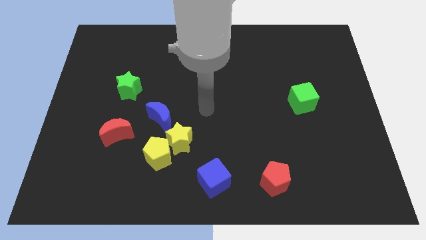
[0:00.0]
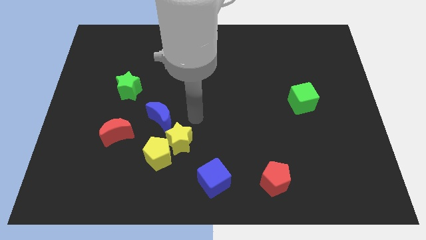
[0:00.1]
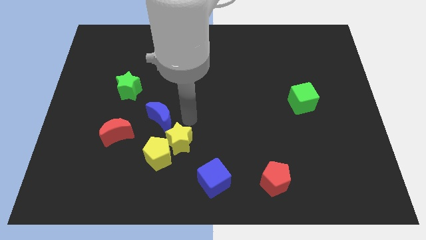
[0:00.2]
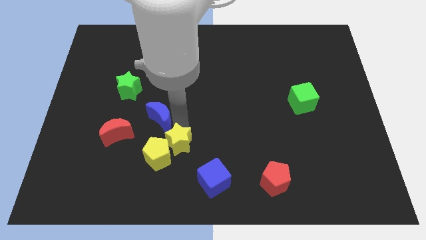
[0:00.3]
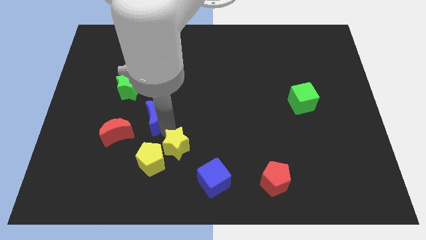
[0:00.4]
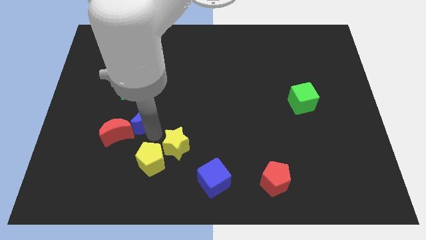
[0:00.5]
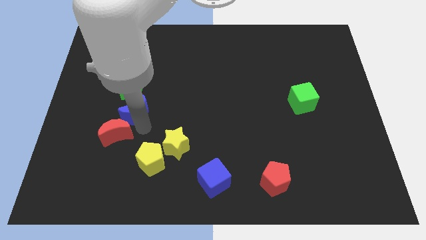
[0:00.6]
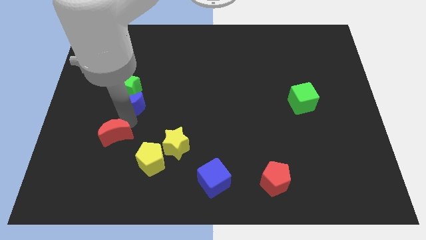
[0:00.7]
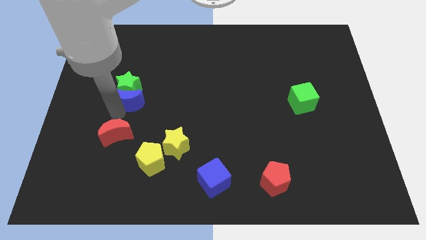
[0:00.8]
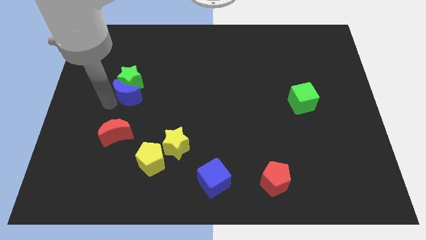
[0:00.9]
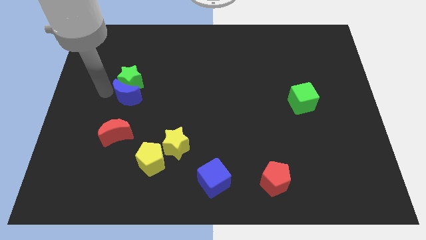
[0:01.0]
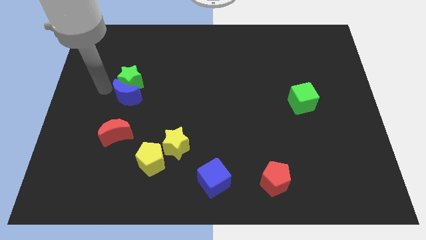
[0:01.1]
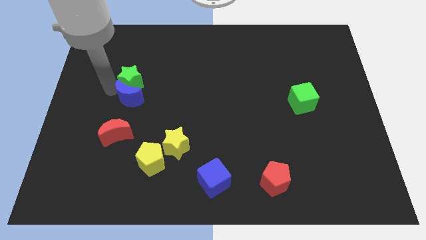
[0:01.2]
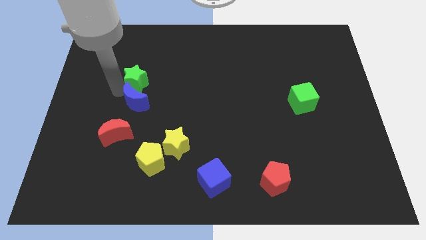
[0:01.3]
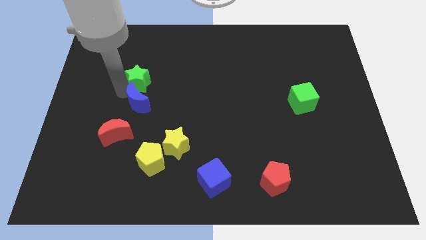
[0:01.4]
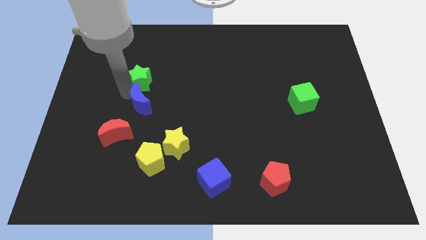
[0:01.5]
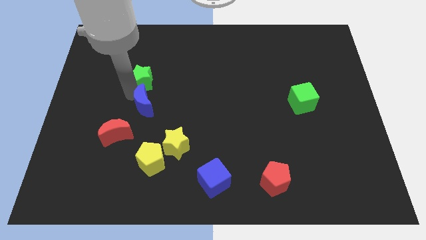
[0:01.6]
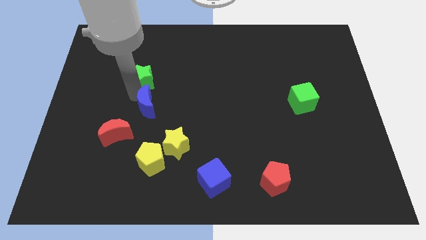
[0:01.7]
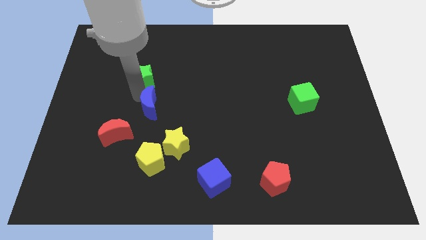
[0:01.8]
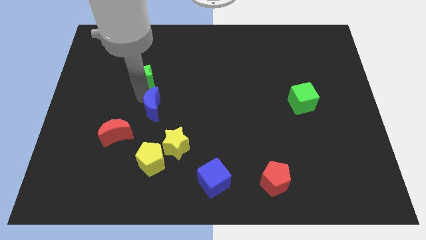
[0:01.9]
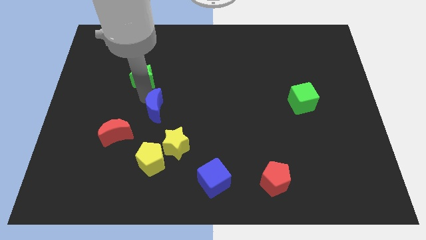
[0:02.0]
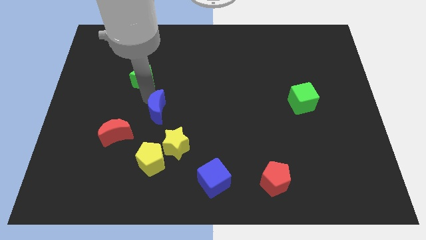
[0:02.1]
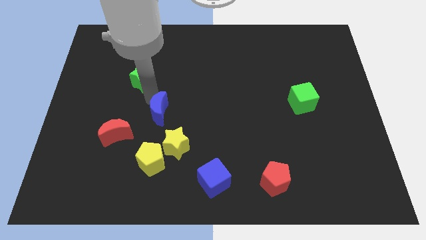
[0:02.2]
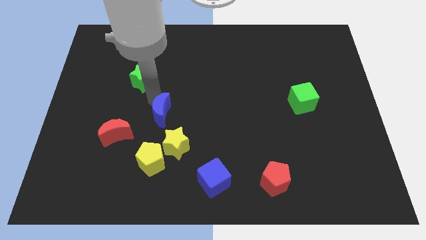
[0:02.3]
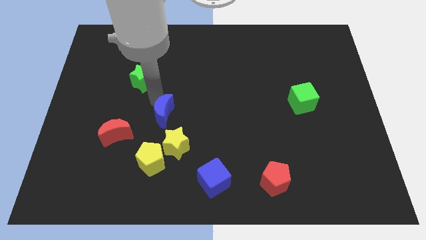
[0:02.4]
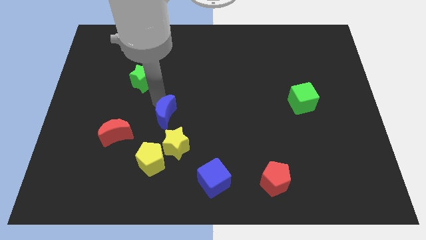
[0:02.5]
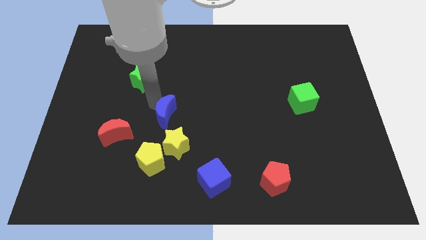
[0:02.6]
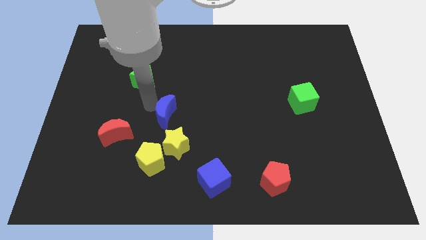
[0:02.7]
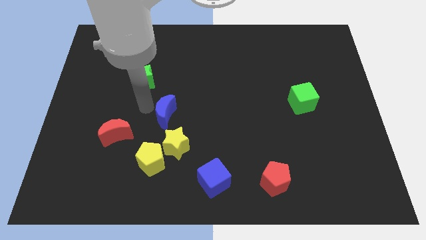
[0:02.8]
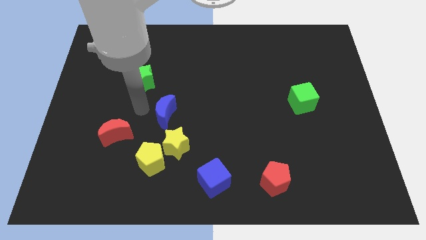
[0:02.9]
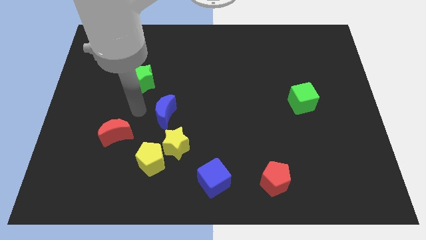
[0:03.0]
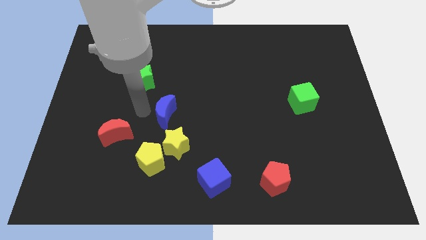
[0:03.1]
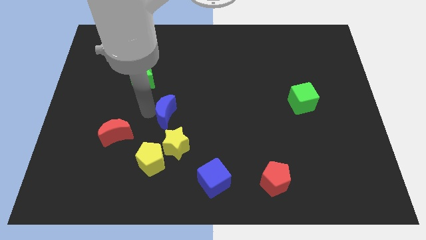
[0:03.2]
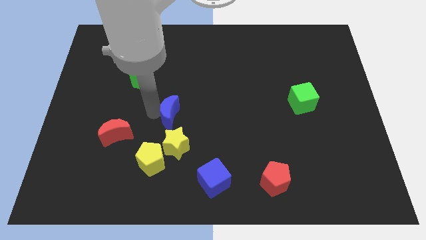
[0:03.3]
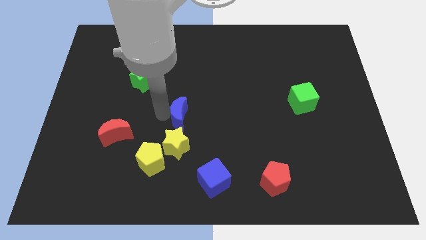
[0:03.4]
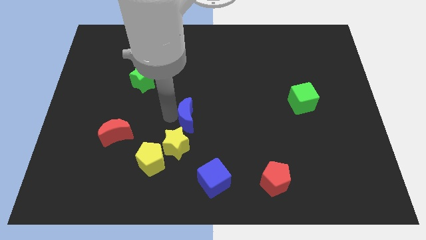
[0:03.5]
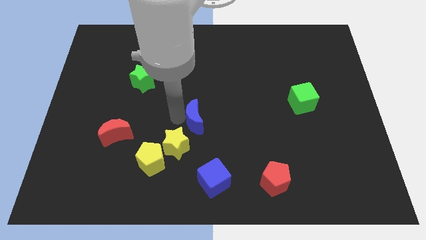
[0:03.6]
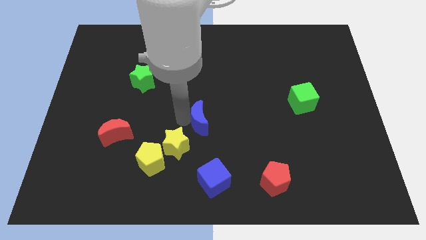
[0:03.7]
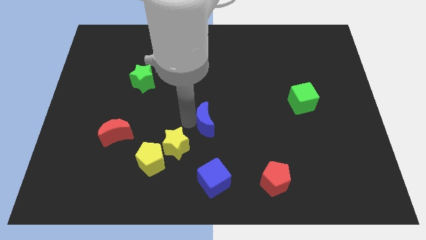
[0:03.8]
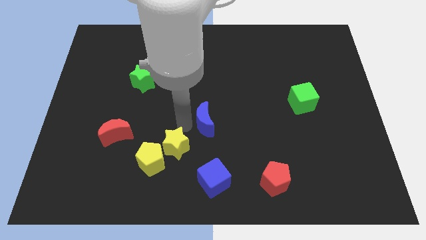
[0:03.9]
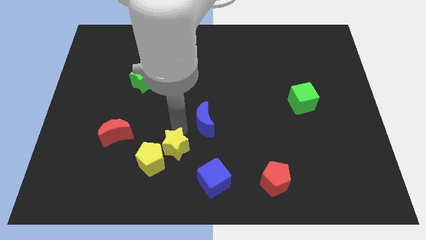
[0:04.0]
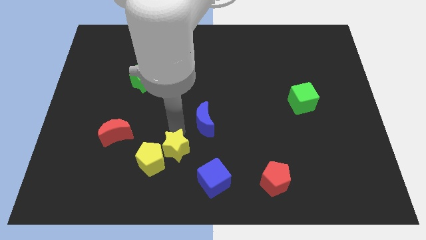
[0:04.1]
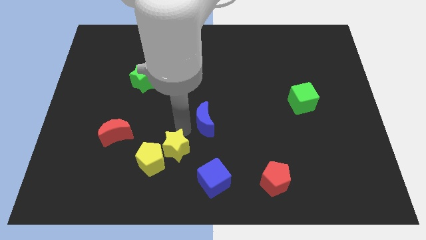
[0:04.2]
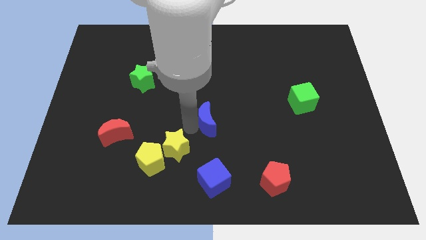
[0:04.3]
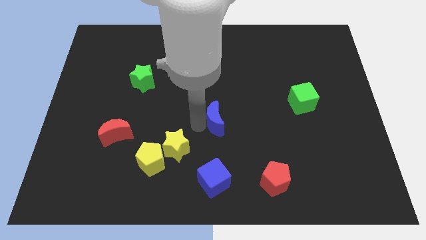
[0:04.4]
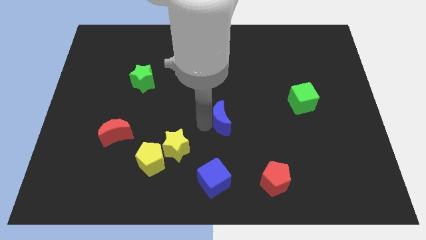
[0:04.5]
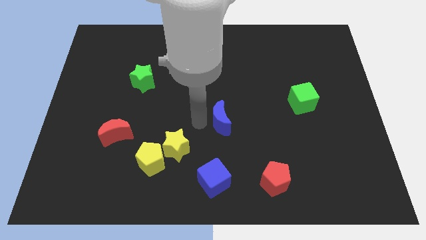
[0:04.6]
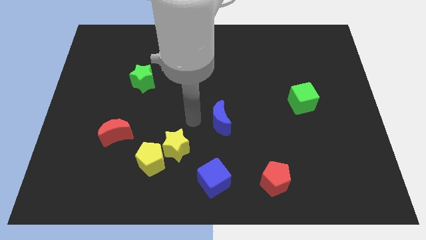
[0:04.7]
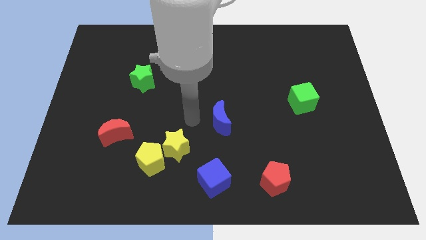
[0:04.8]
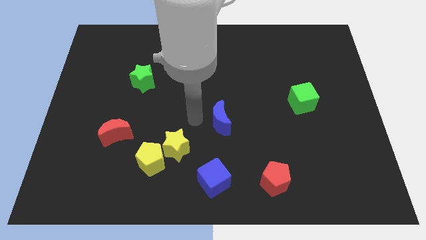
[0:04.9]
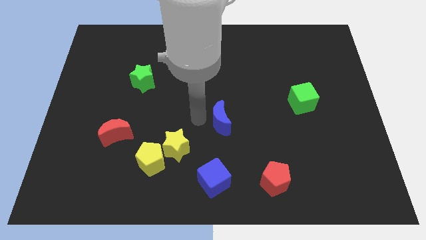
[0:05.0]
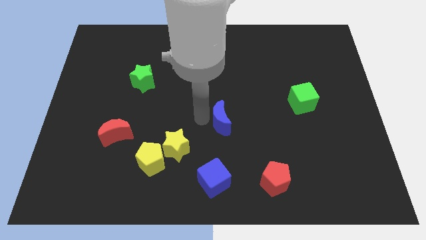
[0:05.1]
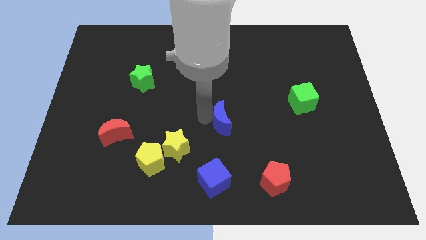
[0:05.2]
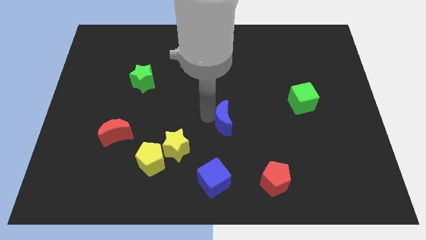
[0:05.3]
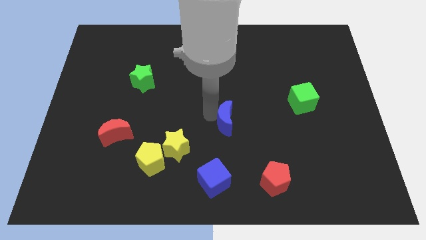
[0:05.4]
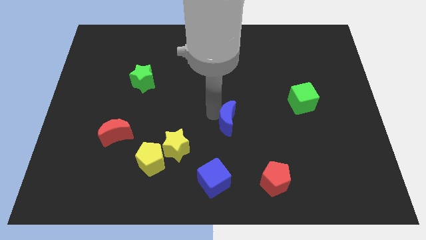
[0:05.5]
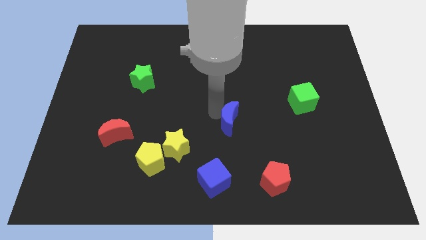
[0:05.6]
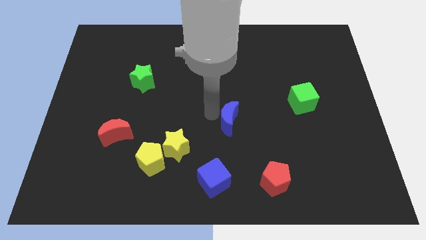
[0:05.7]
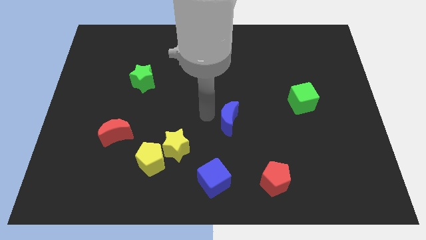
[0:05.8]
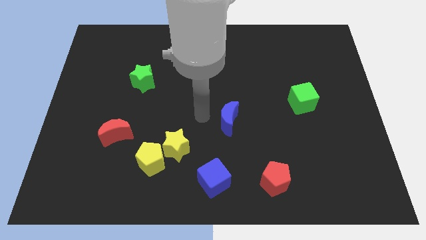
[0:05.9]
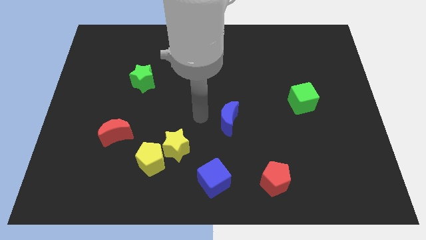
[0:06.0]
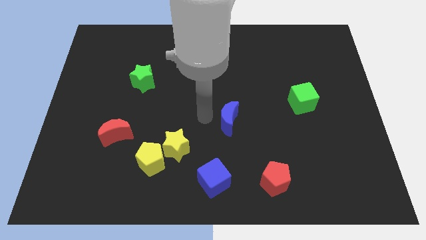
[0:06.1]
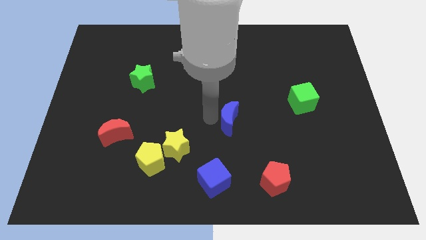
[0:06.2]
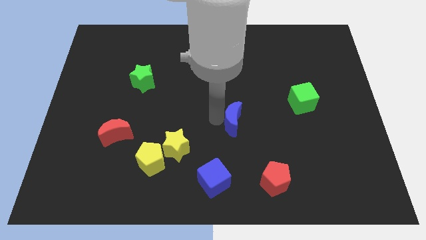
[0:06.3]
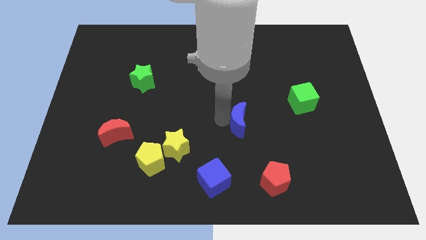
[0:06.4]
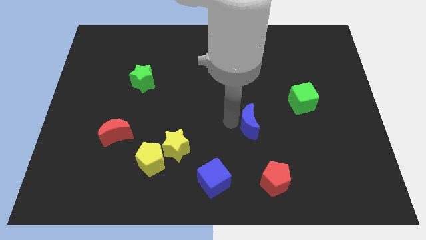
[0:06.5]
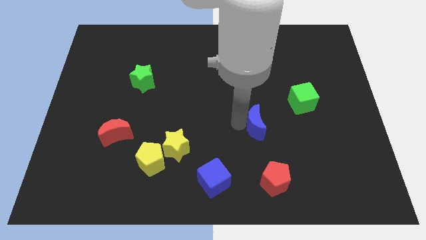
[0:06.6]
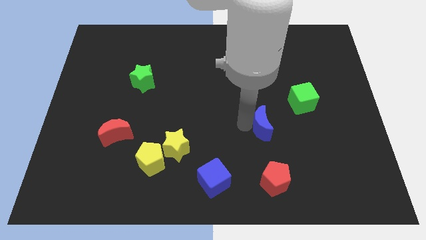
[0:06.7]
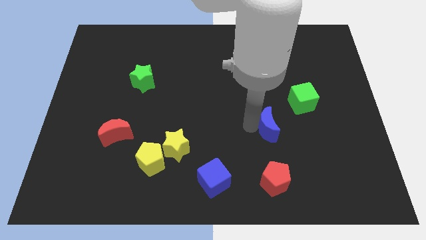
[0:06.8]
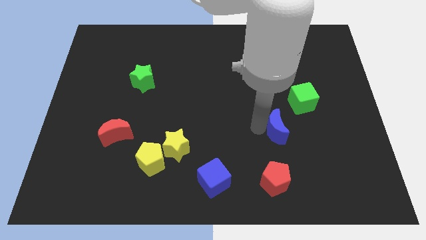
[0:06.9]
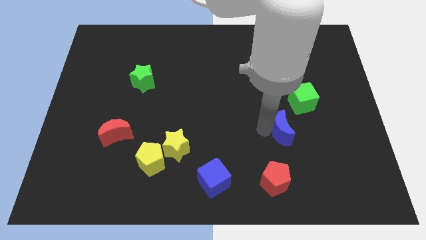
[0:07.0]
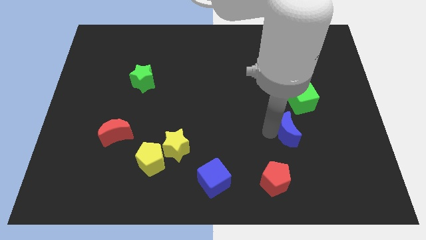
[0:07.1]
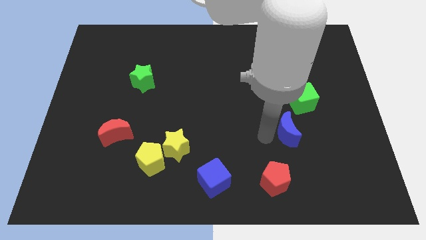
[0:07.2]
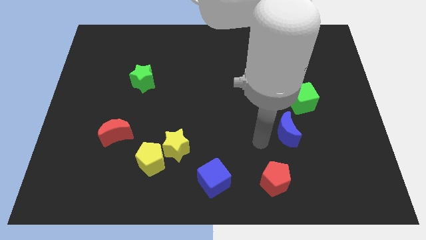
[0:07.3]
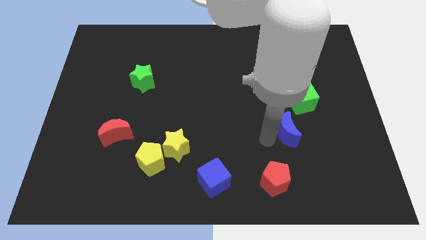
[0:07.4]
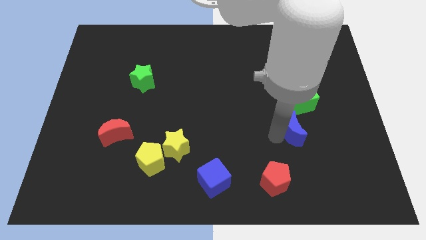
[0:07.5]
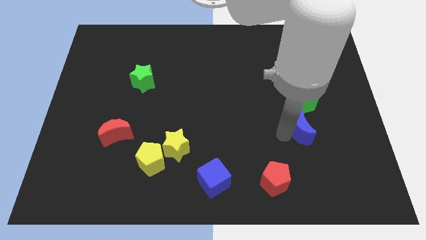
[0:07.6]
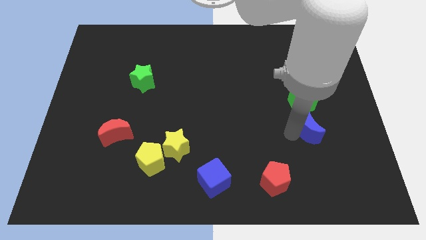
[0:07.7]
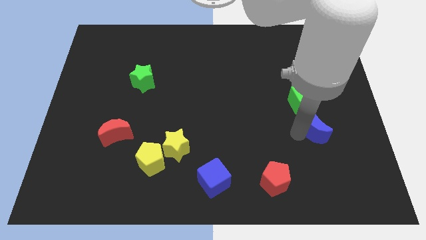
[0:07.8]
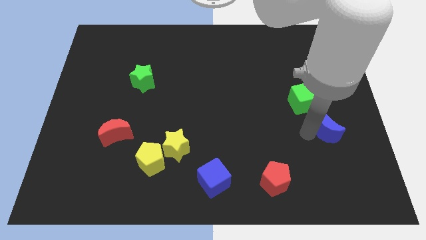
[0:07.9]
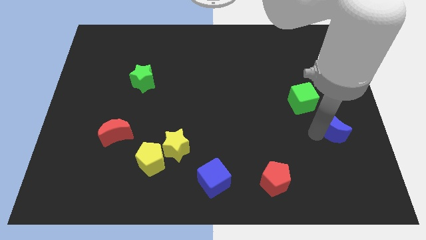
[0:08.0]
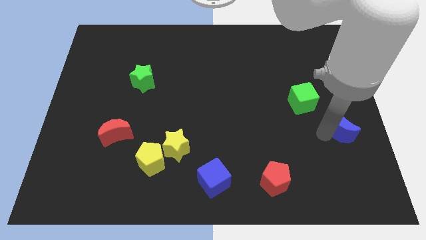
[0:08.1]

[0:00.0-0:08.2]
move the blue moon to the right side
